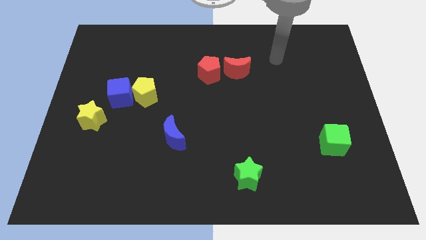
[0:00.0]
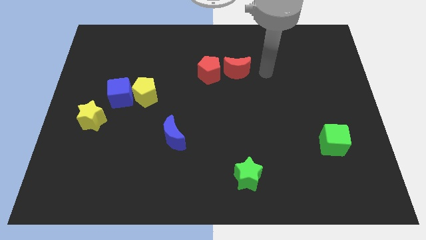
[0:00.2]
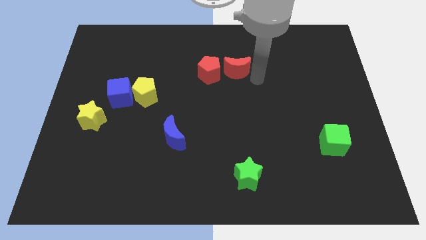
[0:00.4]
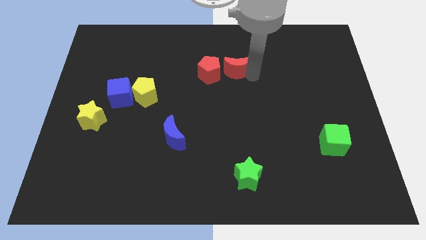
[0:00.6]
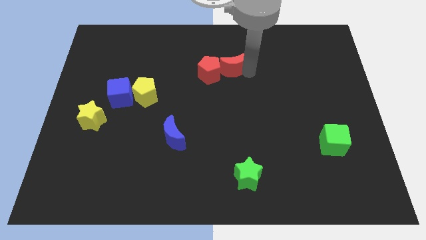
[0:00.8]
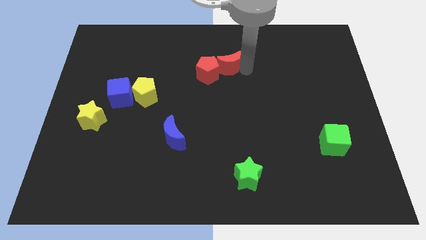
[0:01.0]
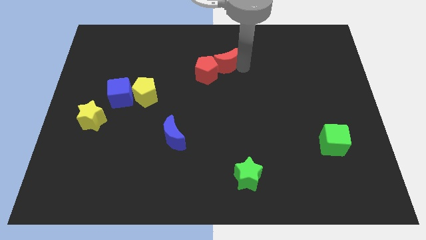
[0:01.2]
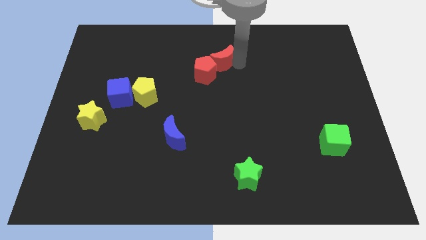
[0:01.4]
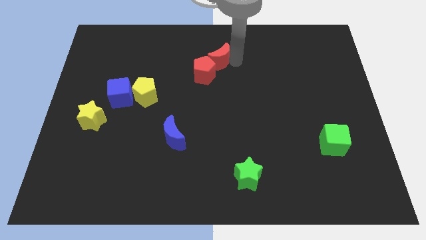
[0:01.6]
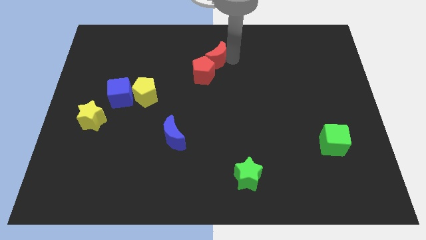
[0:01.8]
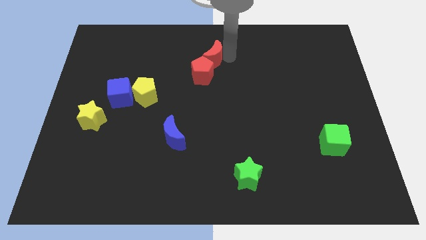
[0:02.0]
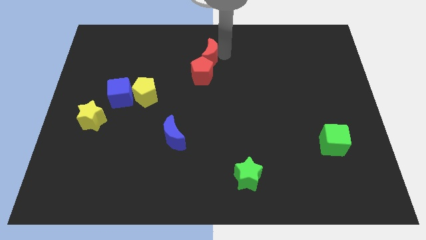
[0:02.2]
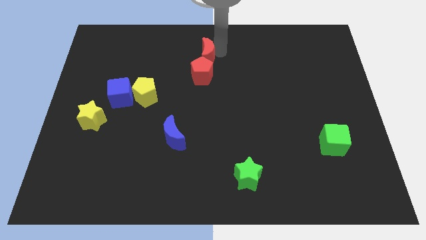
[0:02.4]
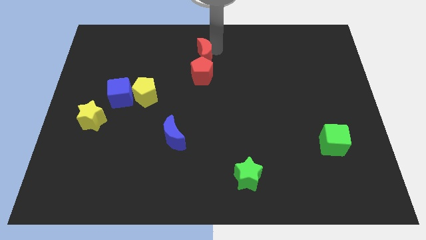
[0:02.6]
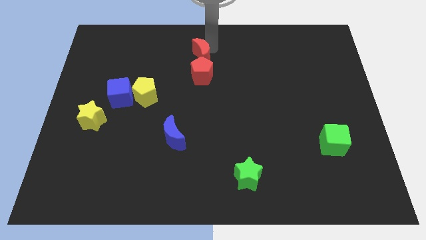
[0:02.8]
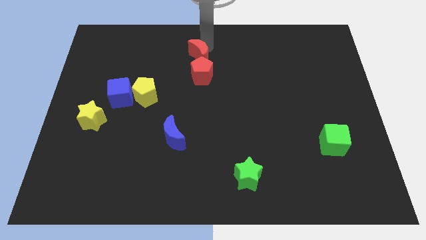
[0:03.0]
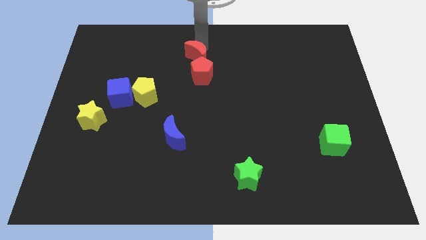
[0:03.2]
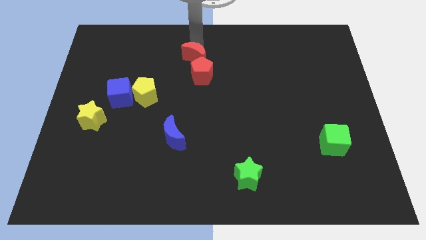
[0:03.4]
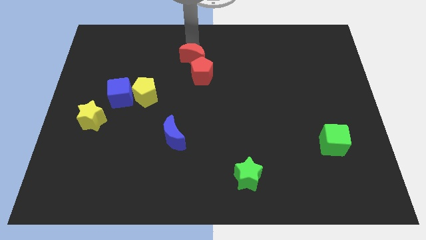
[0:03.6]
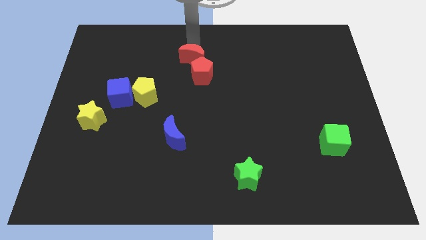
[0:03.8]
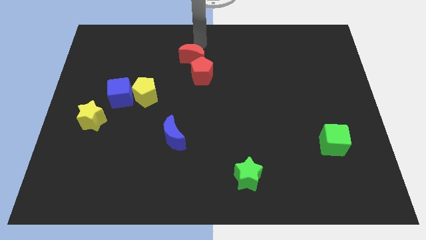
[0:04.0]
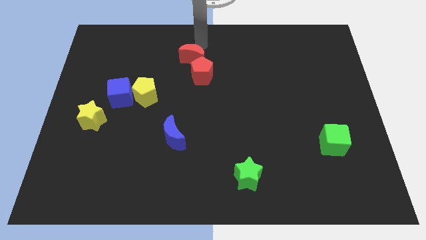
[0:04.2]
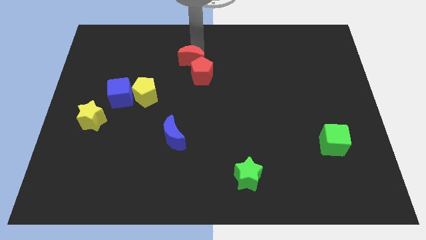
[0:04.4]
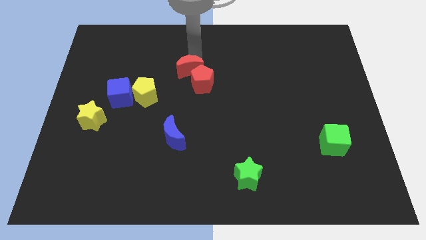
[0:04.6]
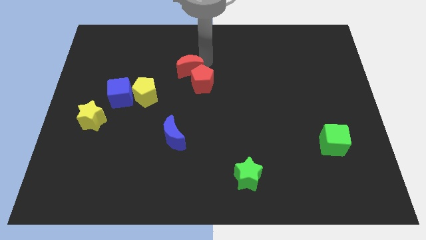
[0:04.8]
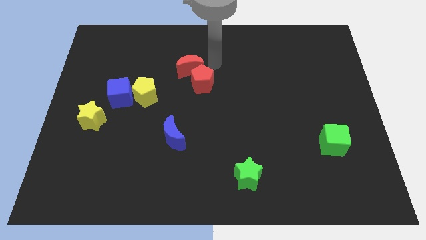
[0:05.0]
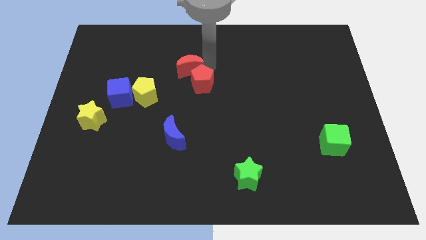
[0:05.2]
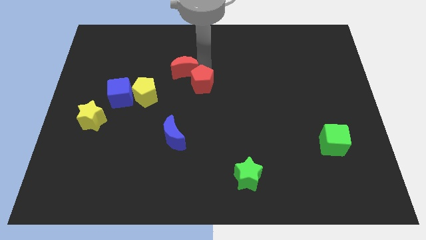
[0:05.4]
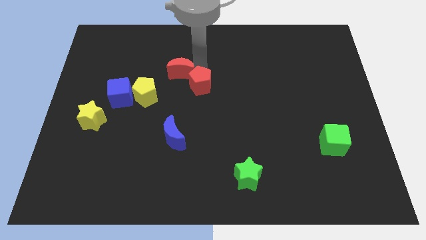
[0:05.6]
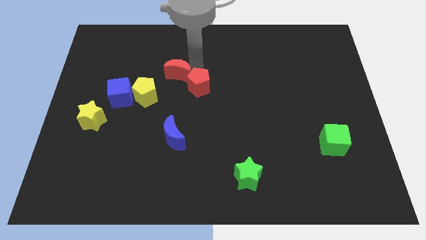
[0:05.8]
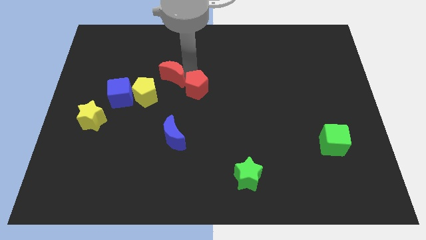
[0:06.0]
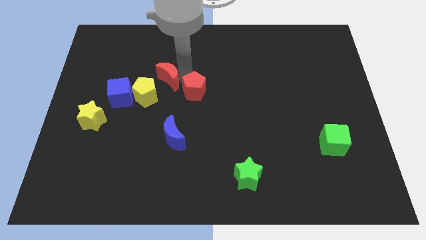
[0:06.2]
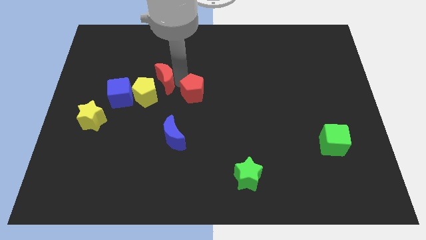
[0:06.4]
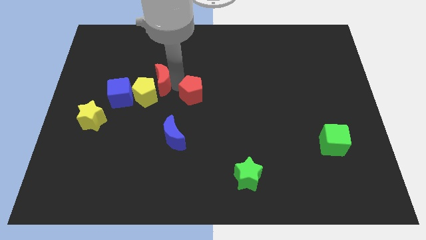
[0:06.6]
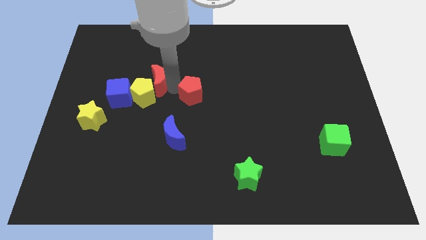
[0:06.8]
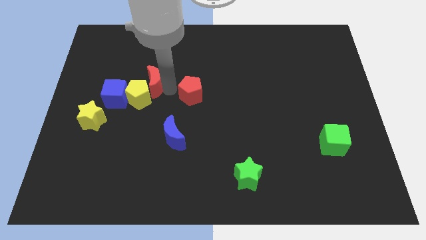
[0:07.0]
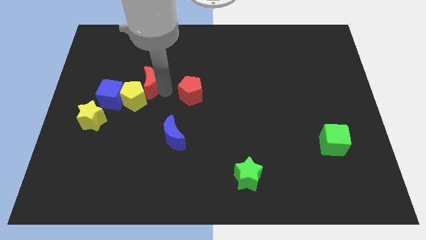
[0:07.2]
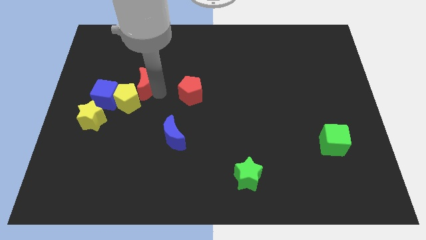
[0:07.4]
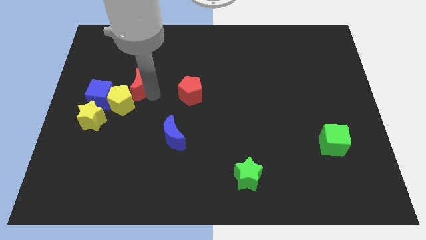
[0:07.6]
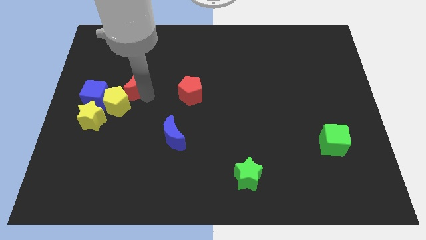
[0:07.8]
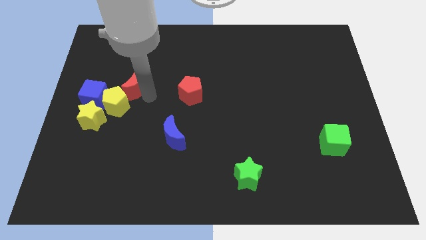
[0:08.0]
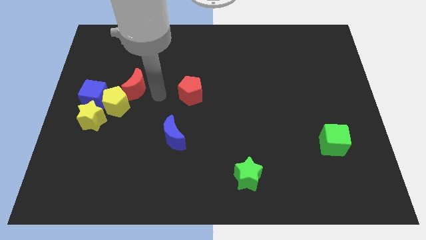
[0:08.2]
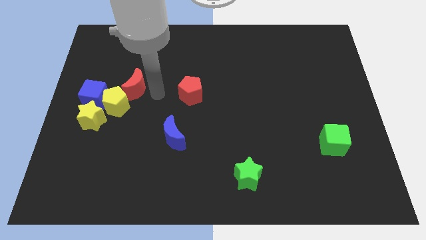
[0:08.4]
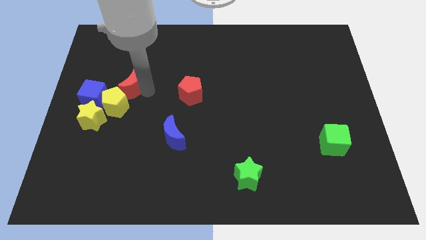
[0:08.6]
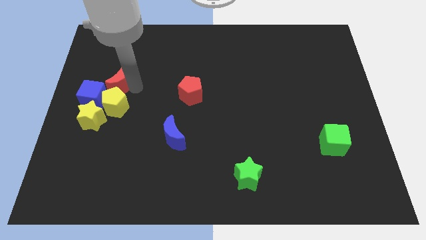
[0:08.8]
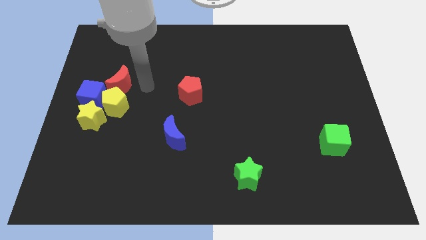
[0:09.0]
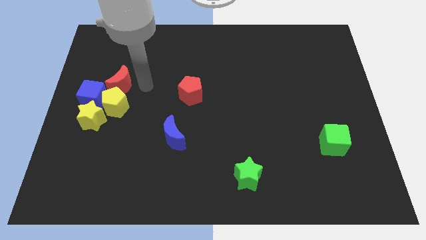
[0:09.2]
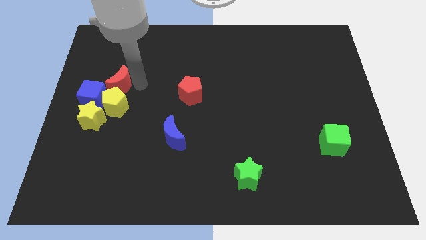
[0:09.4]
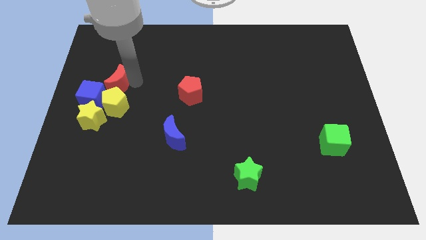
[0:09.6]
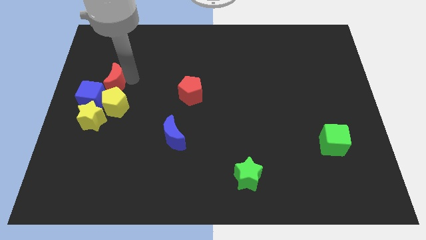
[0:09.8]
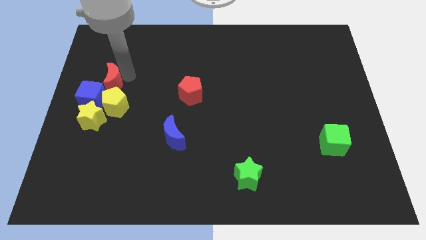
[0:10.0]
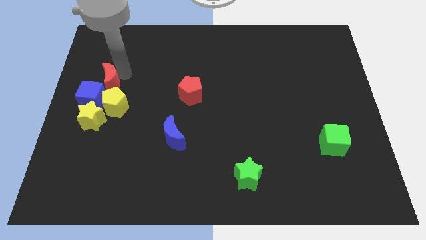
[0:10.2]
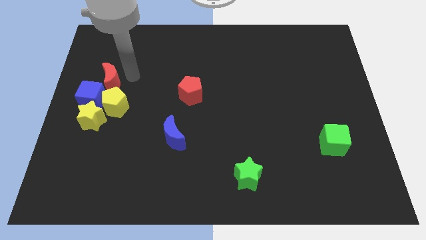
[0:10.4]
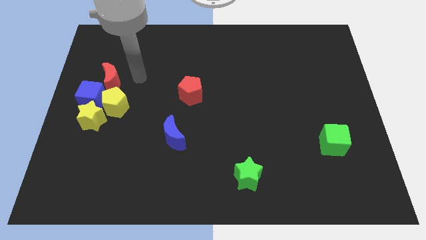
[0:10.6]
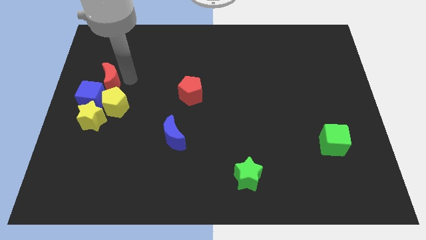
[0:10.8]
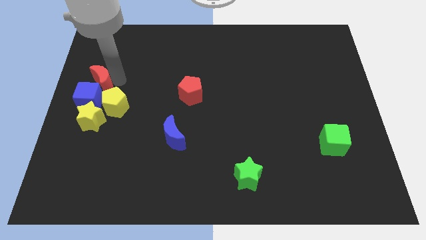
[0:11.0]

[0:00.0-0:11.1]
push the red moon to the left side of the board

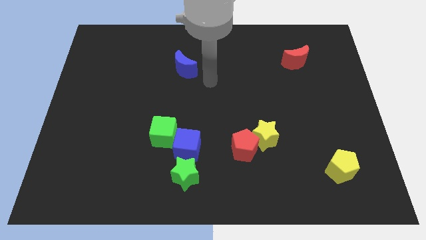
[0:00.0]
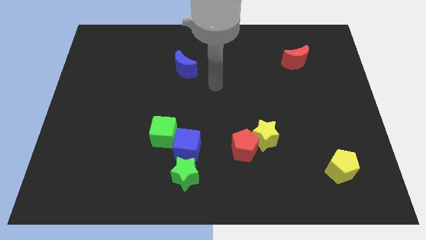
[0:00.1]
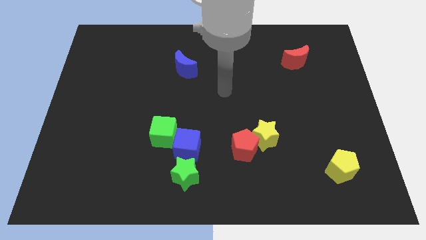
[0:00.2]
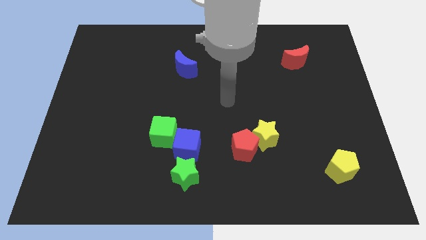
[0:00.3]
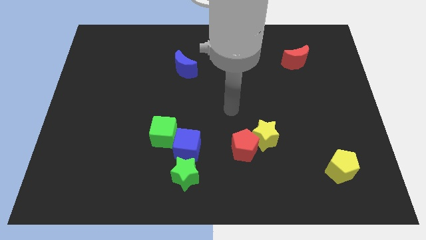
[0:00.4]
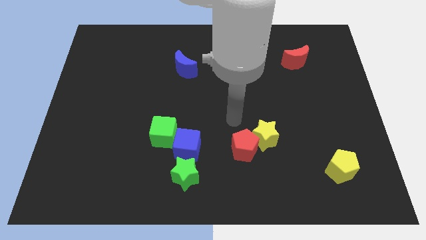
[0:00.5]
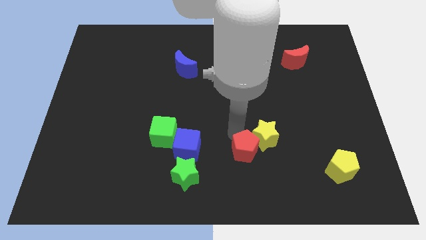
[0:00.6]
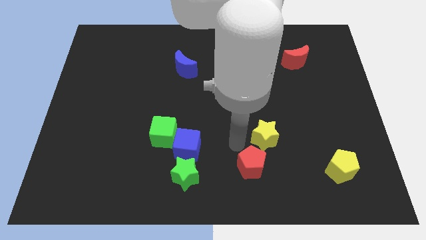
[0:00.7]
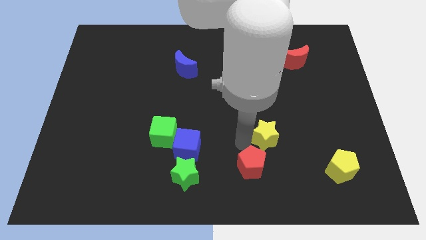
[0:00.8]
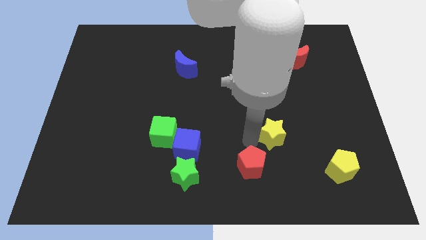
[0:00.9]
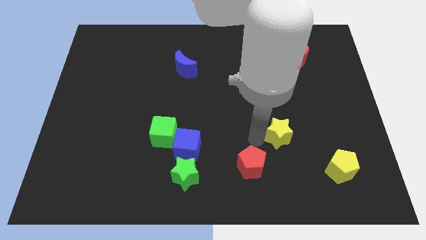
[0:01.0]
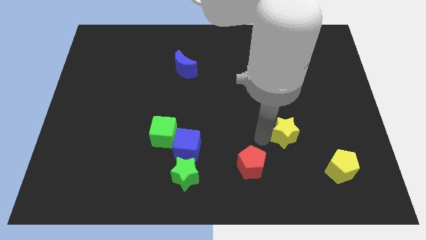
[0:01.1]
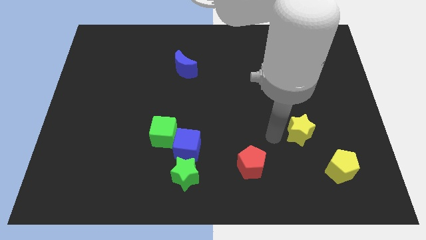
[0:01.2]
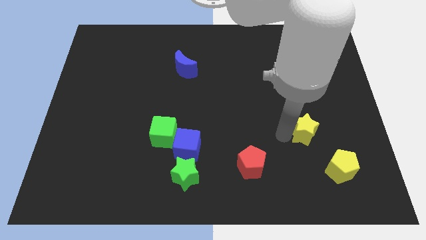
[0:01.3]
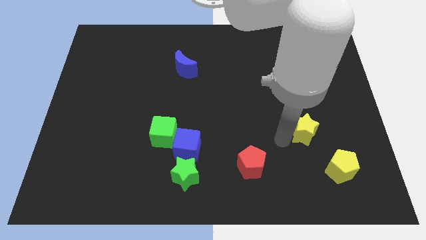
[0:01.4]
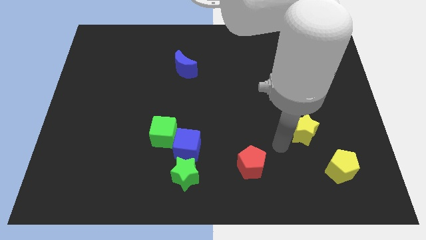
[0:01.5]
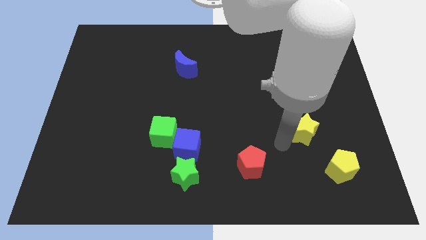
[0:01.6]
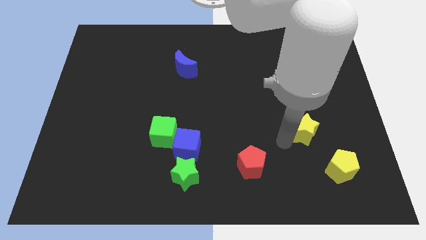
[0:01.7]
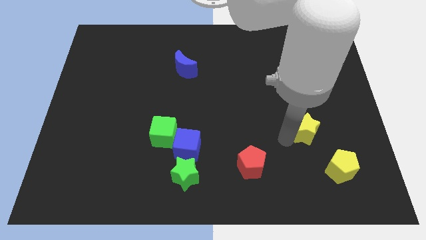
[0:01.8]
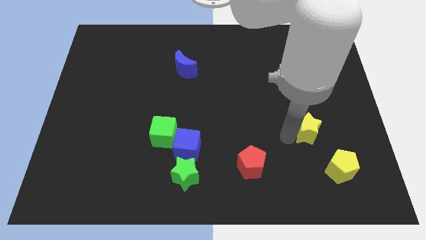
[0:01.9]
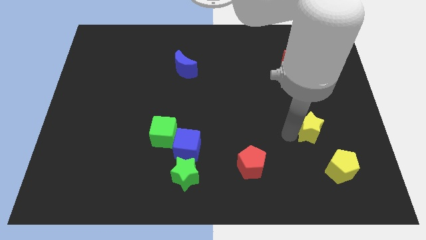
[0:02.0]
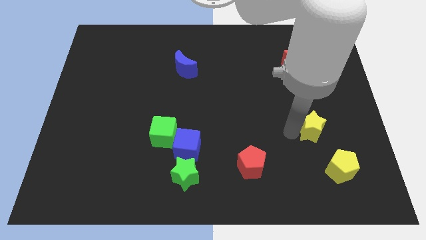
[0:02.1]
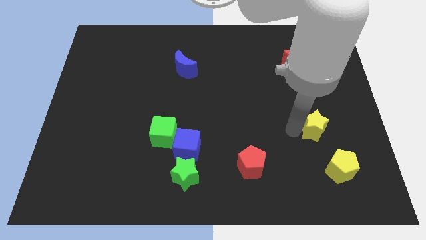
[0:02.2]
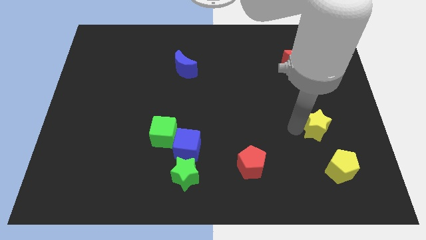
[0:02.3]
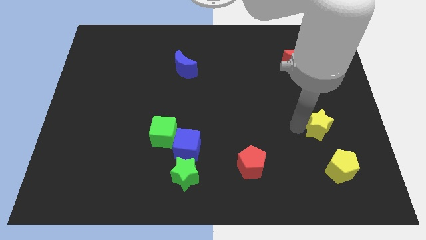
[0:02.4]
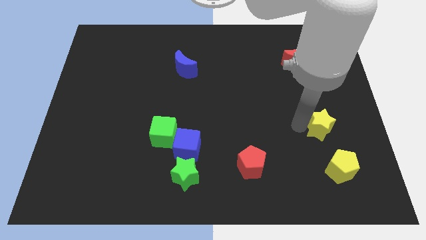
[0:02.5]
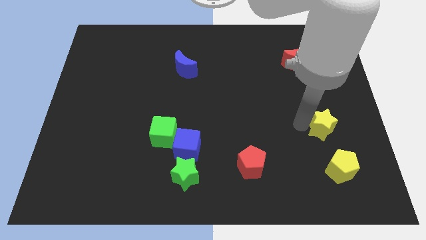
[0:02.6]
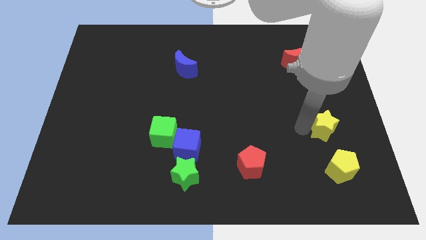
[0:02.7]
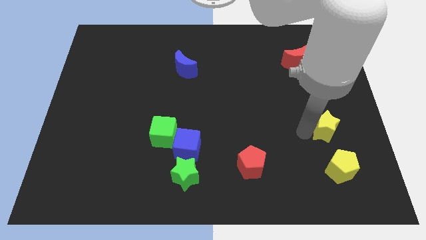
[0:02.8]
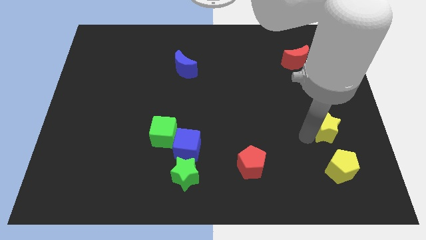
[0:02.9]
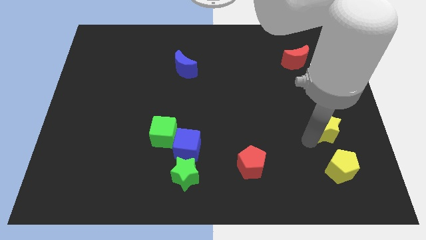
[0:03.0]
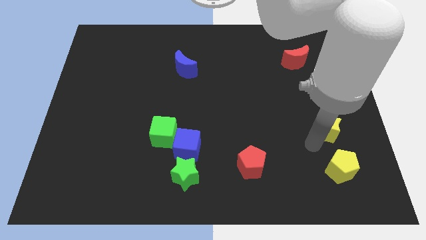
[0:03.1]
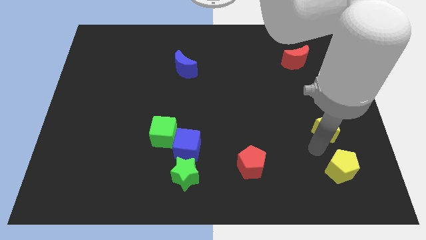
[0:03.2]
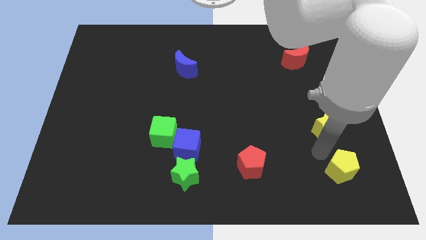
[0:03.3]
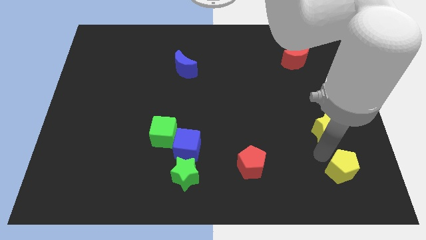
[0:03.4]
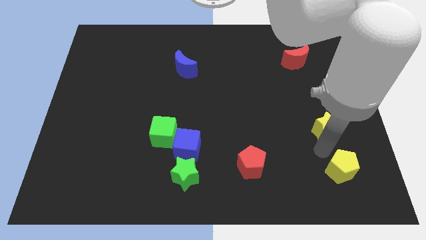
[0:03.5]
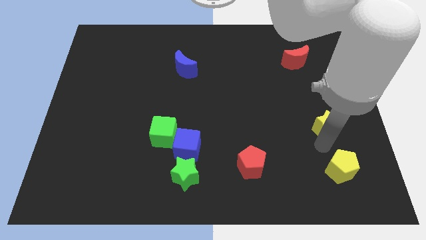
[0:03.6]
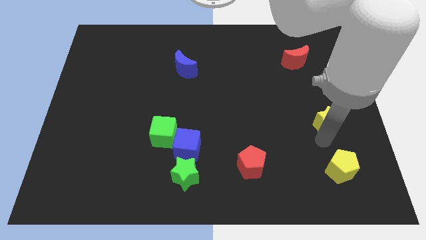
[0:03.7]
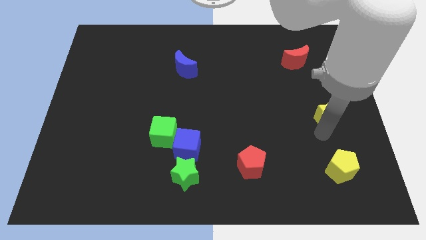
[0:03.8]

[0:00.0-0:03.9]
put the yellow star to the right side
